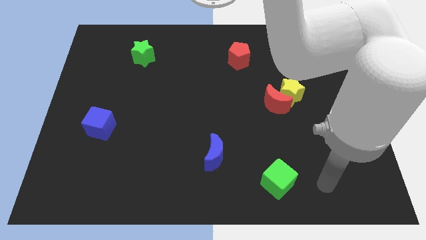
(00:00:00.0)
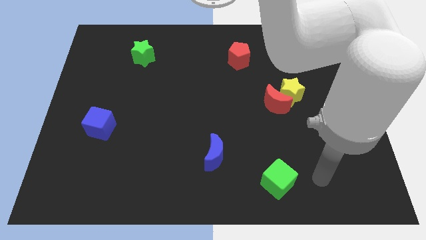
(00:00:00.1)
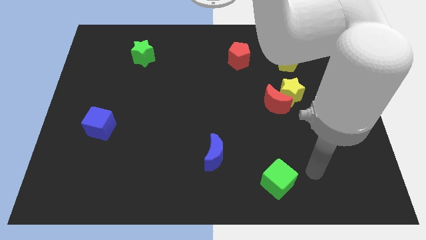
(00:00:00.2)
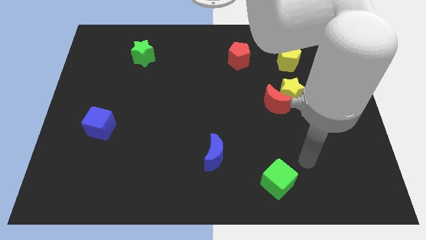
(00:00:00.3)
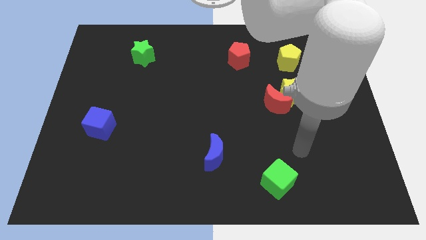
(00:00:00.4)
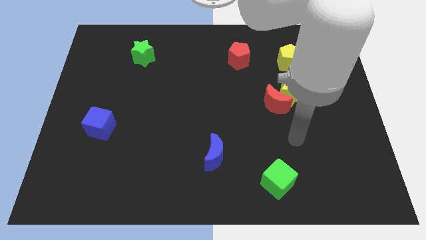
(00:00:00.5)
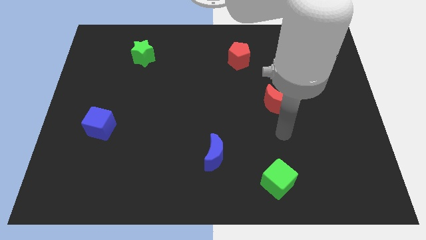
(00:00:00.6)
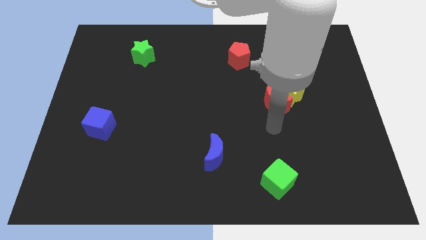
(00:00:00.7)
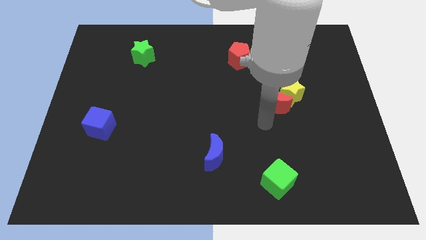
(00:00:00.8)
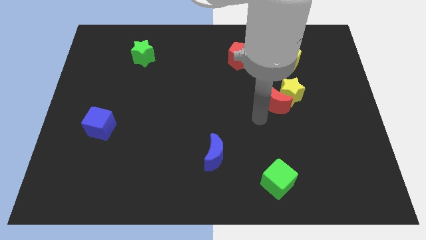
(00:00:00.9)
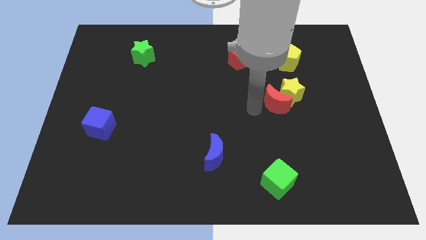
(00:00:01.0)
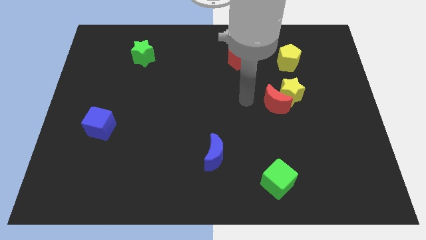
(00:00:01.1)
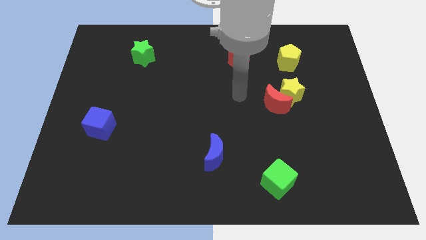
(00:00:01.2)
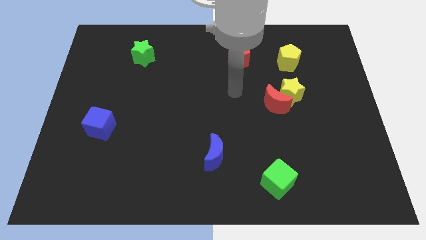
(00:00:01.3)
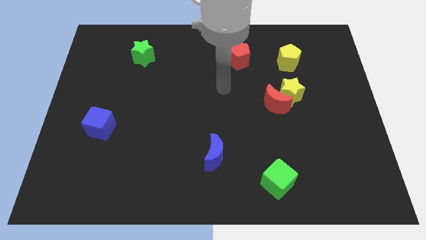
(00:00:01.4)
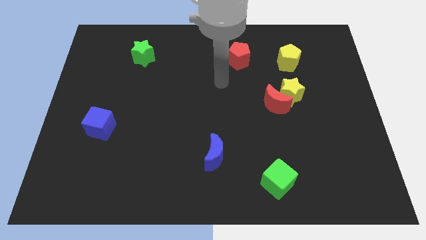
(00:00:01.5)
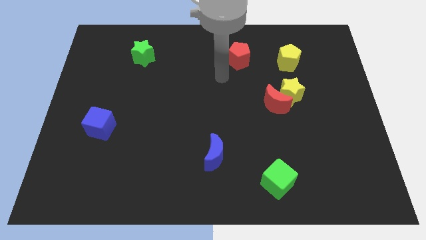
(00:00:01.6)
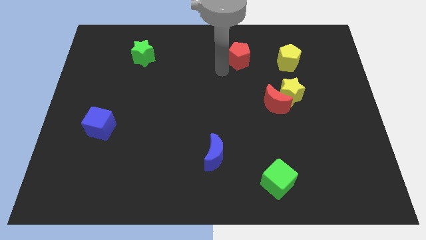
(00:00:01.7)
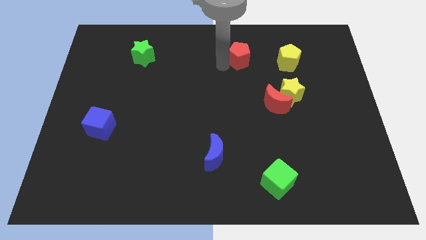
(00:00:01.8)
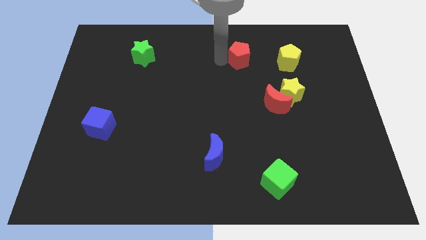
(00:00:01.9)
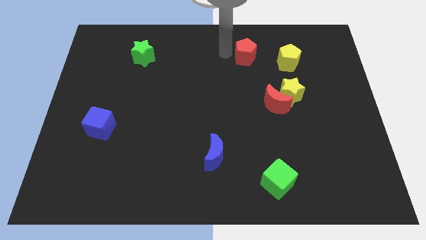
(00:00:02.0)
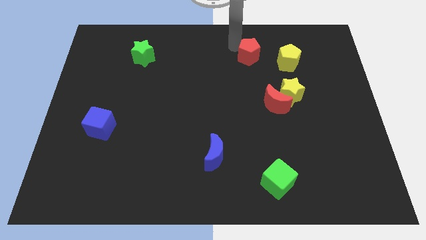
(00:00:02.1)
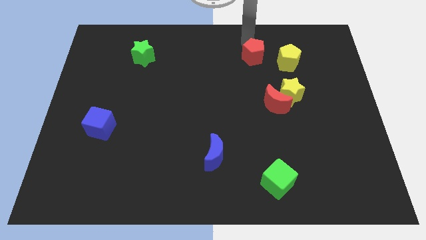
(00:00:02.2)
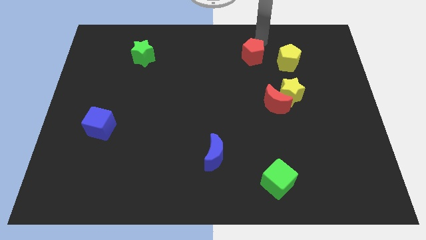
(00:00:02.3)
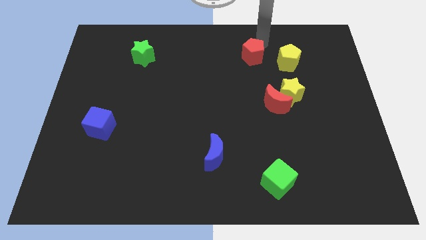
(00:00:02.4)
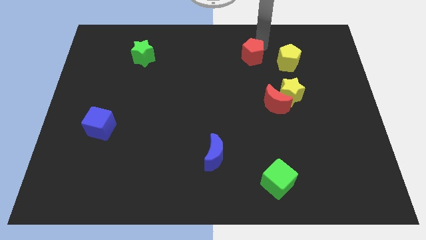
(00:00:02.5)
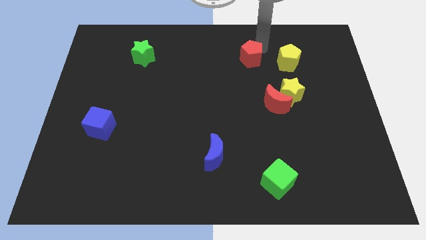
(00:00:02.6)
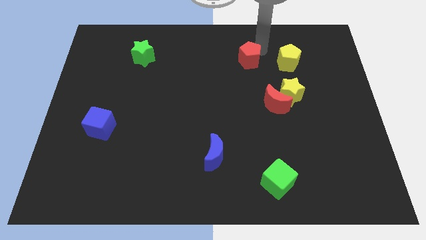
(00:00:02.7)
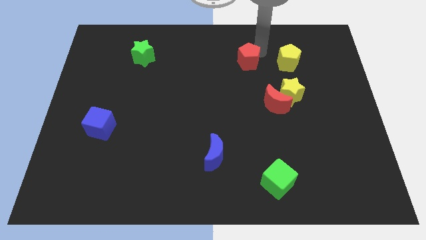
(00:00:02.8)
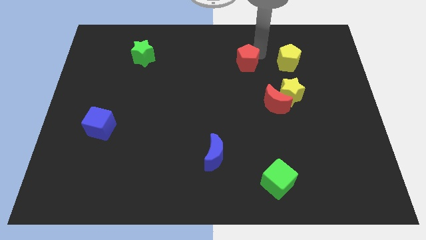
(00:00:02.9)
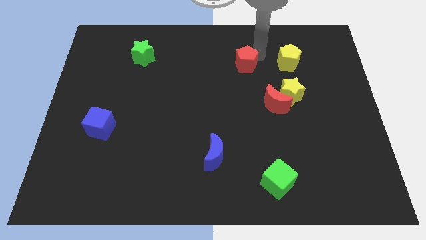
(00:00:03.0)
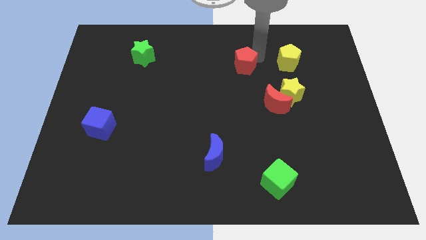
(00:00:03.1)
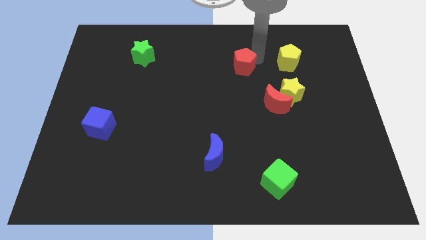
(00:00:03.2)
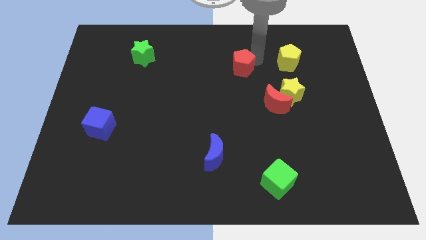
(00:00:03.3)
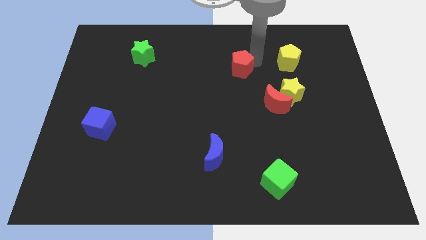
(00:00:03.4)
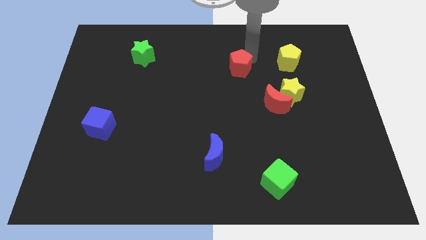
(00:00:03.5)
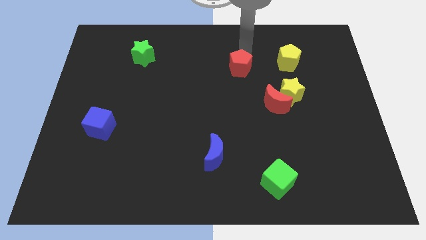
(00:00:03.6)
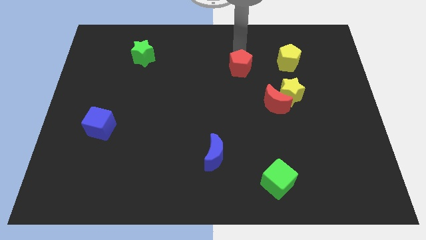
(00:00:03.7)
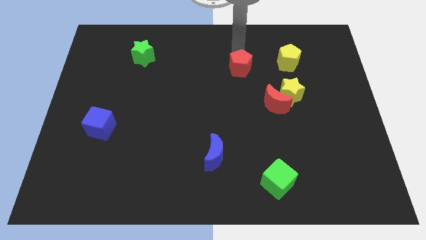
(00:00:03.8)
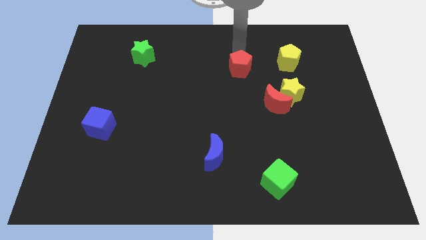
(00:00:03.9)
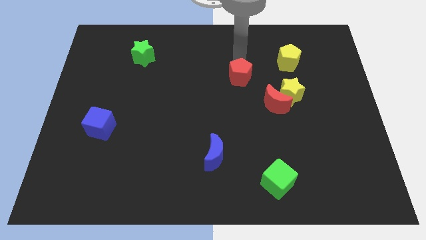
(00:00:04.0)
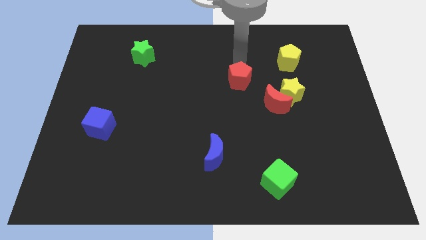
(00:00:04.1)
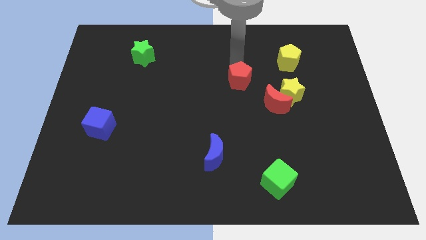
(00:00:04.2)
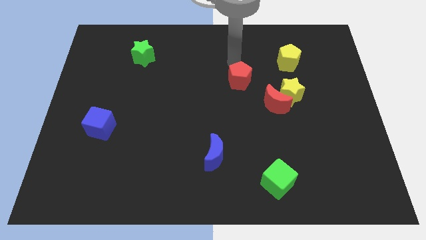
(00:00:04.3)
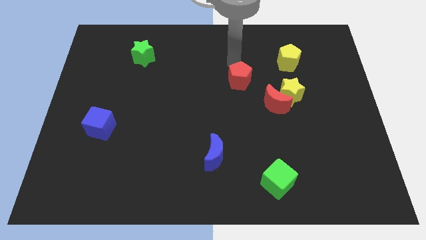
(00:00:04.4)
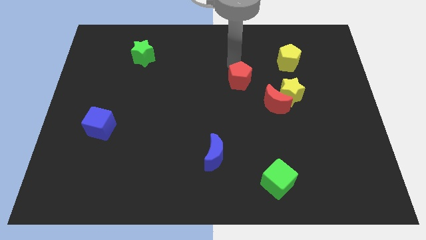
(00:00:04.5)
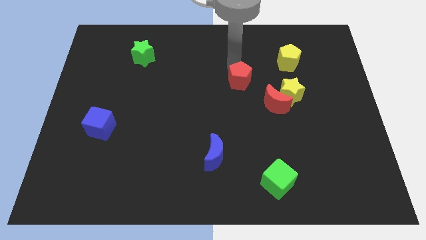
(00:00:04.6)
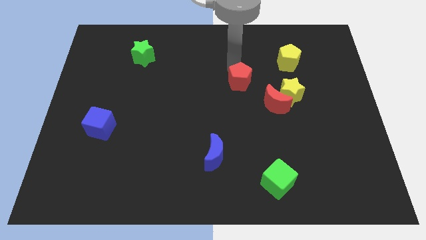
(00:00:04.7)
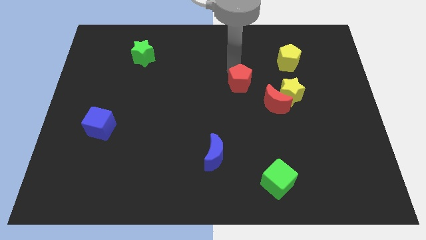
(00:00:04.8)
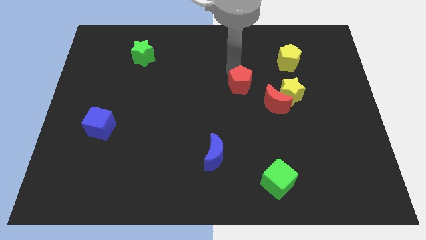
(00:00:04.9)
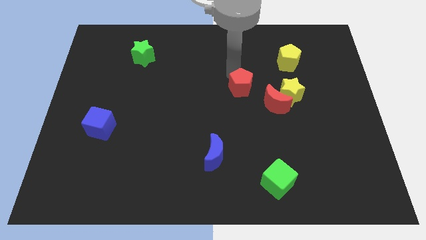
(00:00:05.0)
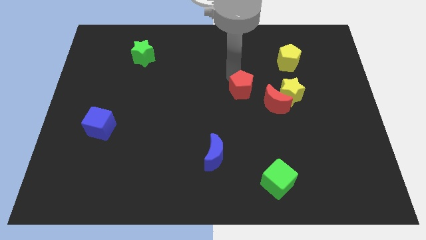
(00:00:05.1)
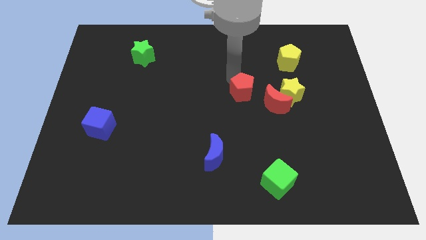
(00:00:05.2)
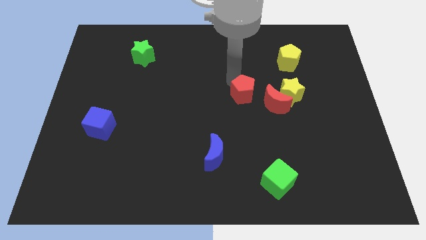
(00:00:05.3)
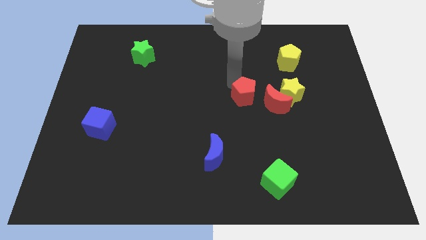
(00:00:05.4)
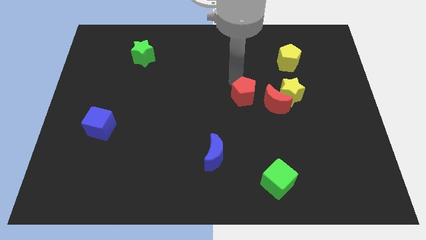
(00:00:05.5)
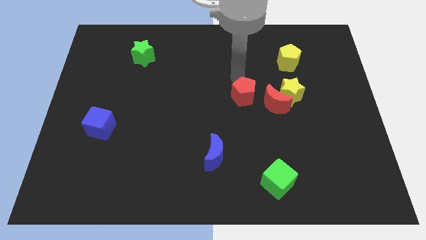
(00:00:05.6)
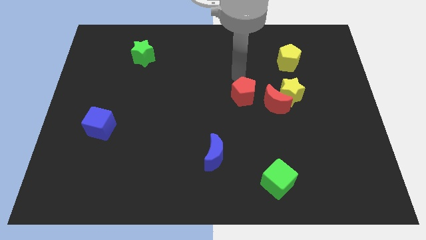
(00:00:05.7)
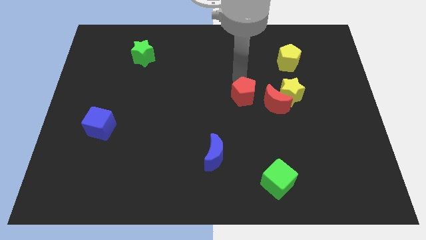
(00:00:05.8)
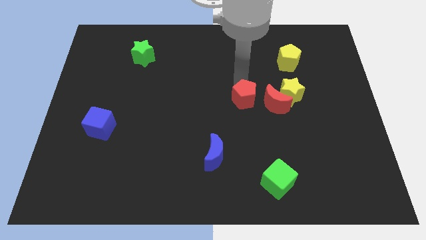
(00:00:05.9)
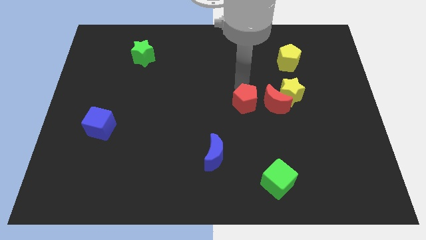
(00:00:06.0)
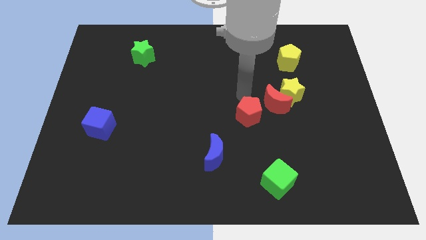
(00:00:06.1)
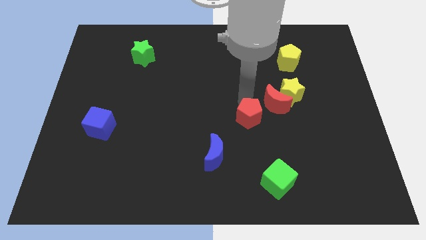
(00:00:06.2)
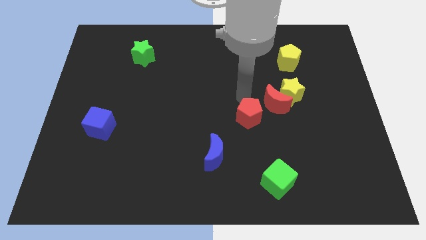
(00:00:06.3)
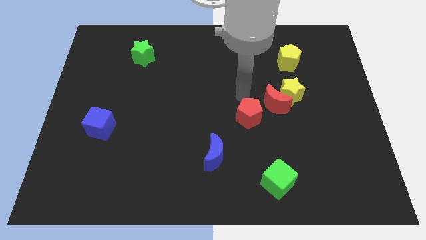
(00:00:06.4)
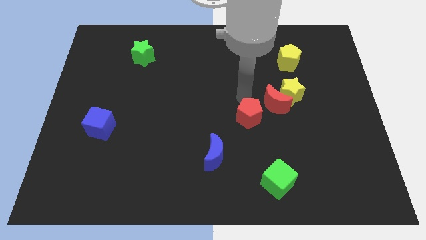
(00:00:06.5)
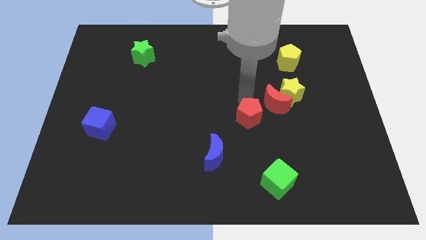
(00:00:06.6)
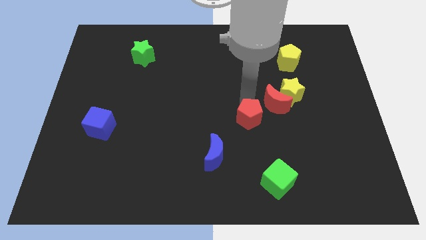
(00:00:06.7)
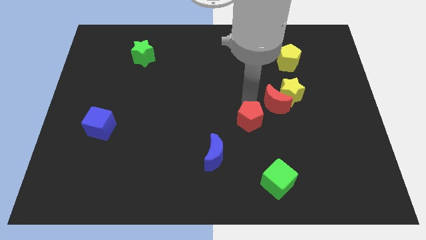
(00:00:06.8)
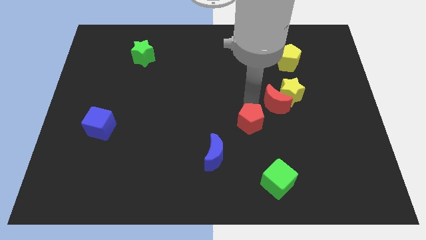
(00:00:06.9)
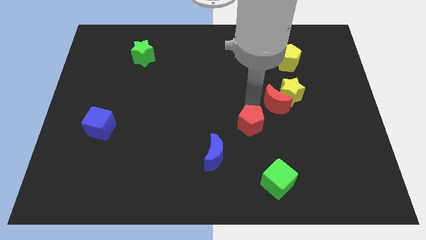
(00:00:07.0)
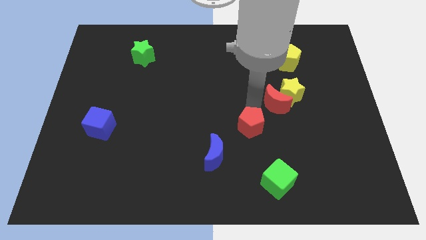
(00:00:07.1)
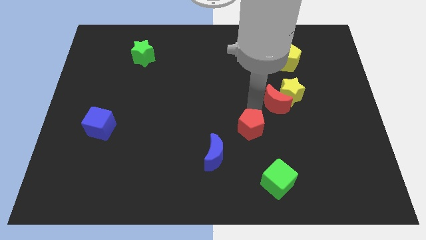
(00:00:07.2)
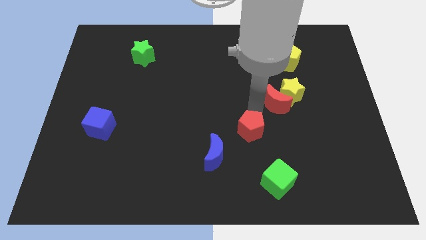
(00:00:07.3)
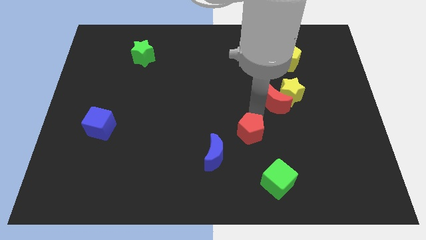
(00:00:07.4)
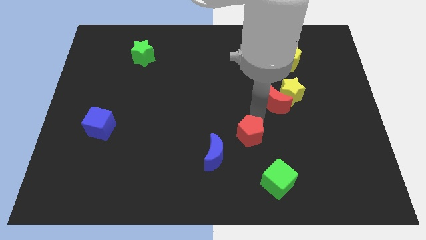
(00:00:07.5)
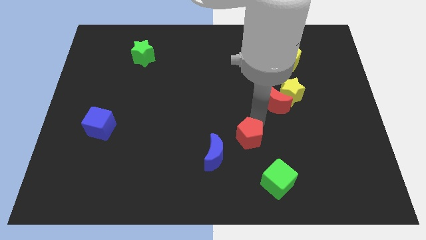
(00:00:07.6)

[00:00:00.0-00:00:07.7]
put the red pentagon to the top left side of the green cube
